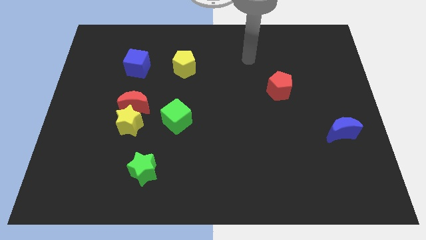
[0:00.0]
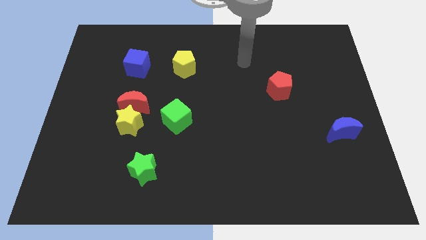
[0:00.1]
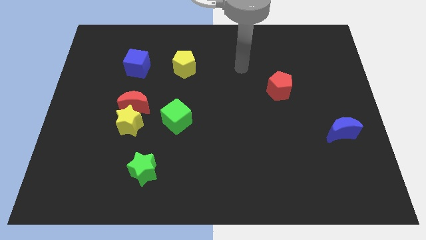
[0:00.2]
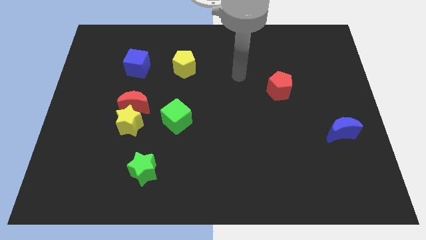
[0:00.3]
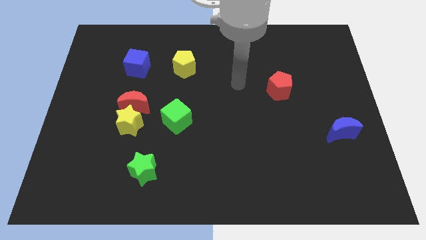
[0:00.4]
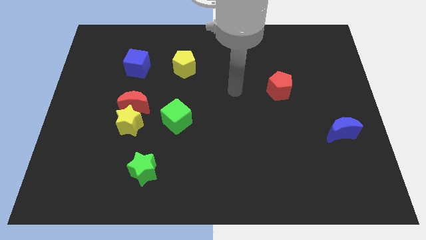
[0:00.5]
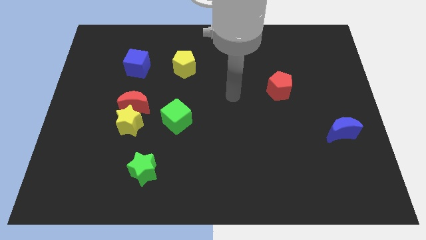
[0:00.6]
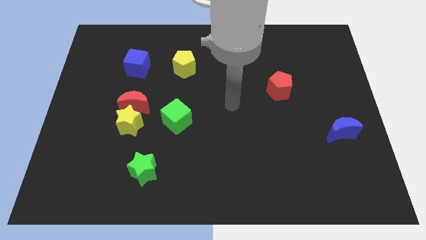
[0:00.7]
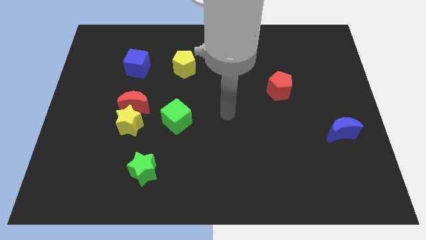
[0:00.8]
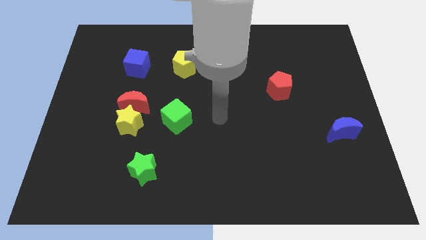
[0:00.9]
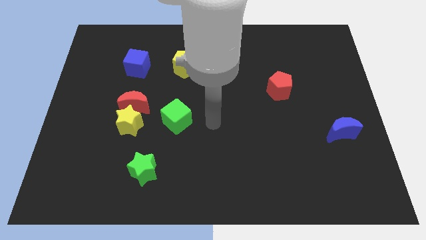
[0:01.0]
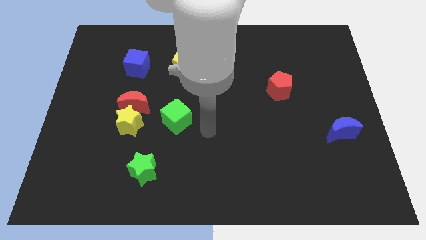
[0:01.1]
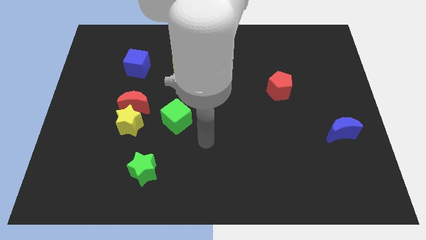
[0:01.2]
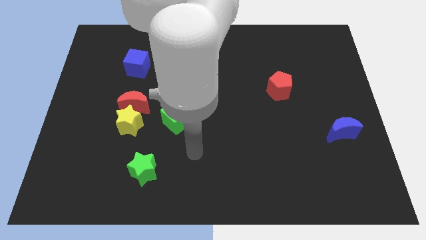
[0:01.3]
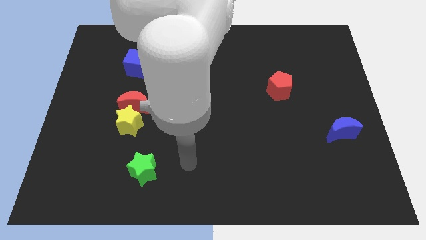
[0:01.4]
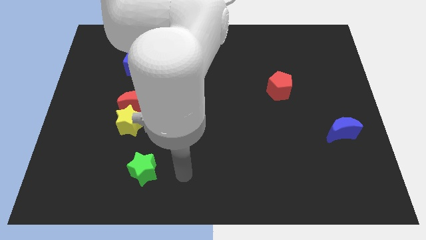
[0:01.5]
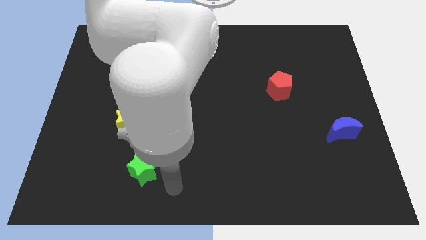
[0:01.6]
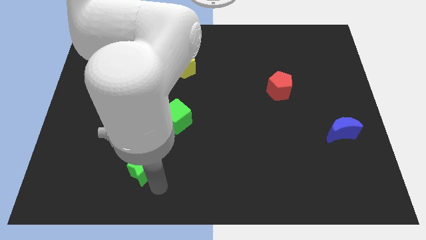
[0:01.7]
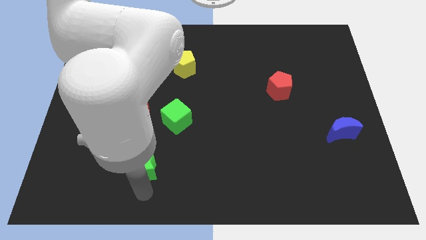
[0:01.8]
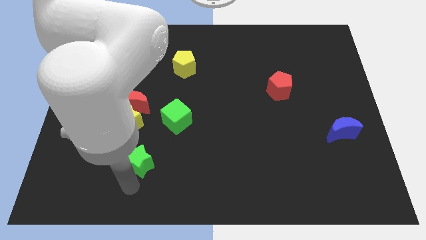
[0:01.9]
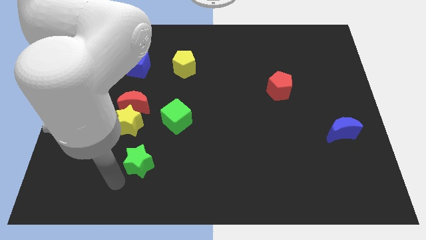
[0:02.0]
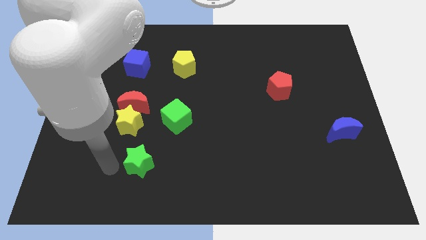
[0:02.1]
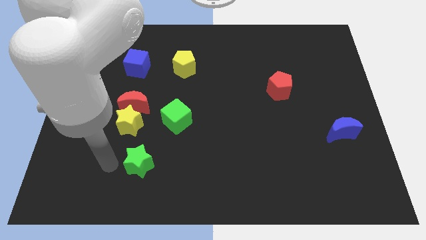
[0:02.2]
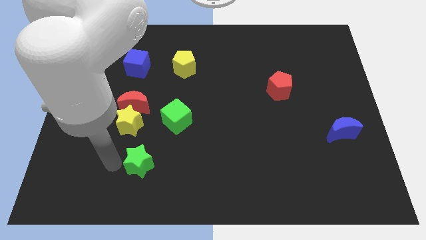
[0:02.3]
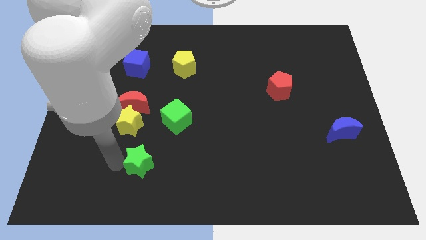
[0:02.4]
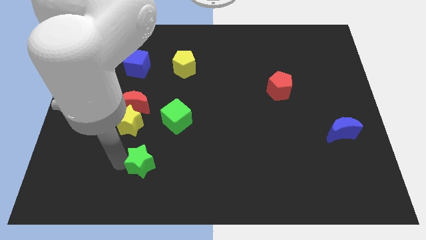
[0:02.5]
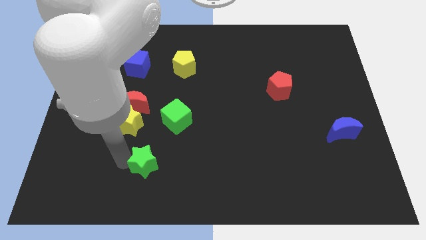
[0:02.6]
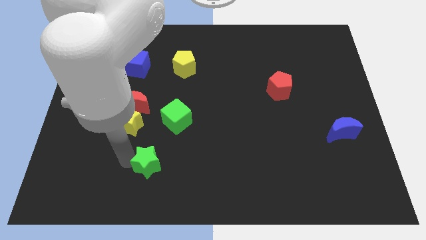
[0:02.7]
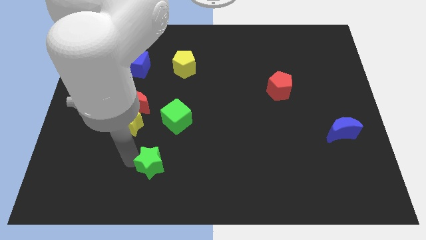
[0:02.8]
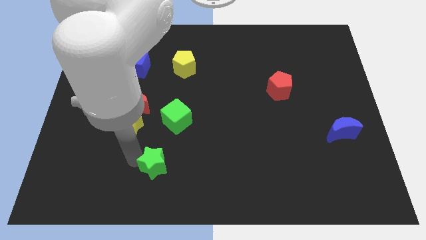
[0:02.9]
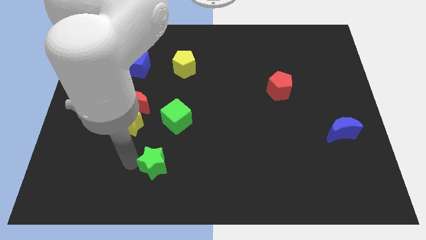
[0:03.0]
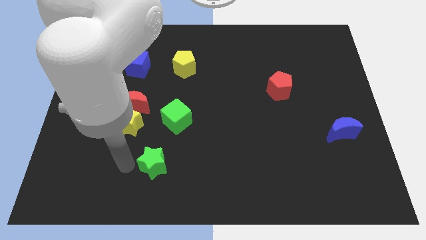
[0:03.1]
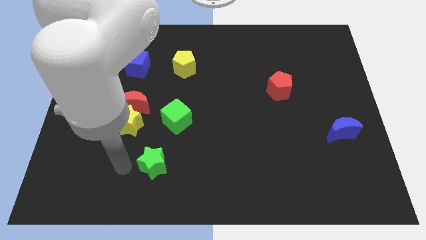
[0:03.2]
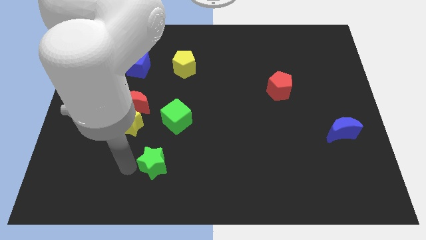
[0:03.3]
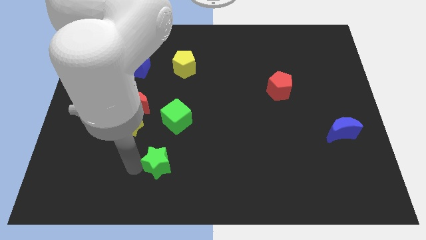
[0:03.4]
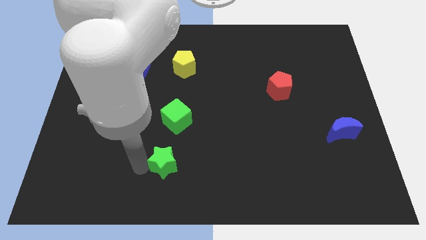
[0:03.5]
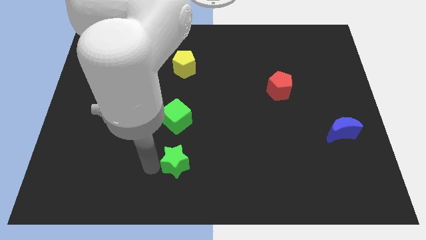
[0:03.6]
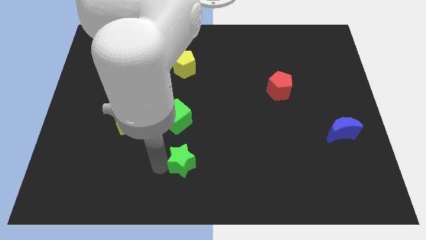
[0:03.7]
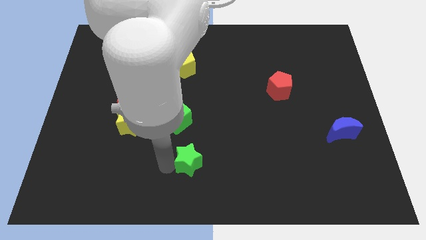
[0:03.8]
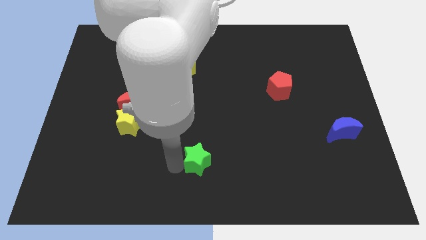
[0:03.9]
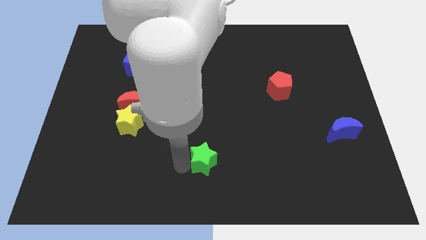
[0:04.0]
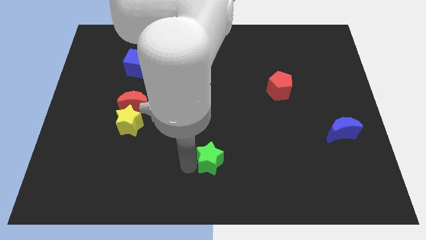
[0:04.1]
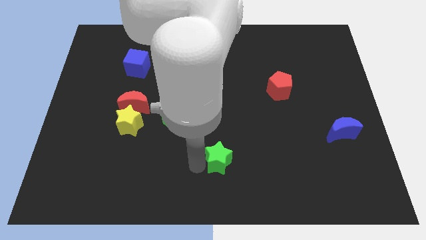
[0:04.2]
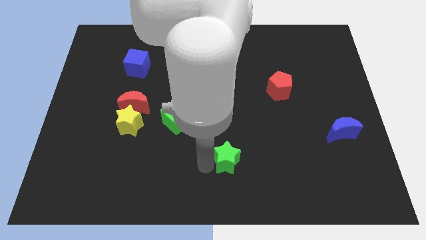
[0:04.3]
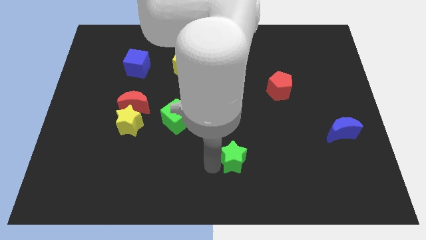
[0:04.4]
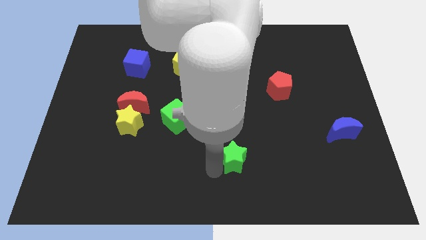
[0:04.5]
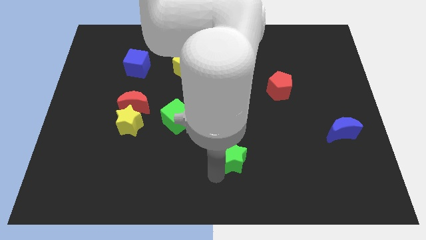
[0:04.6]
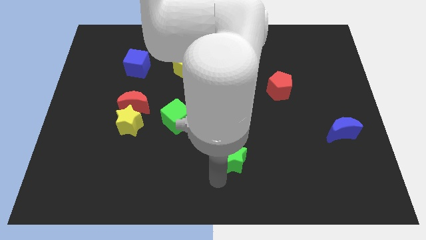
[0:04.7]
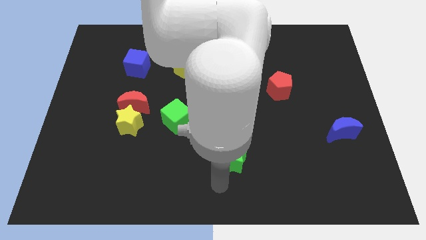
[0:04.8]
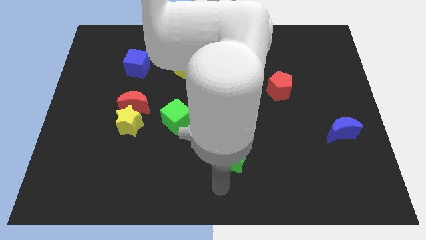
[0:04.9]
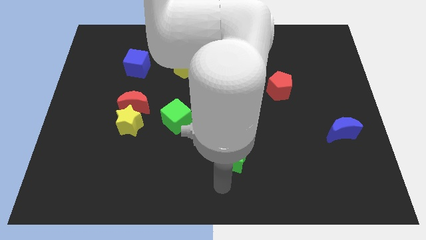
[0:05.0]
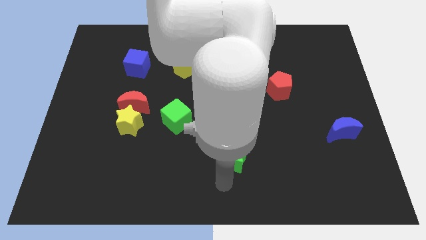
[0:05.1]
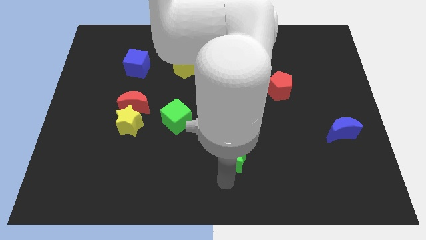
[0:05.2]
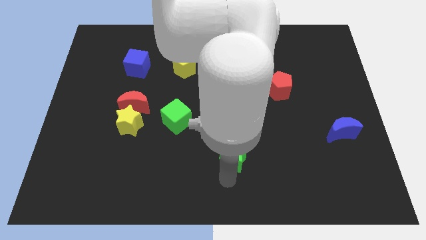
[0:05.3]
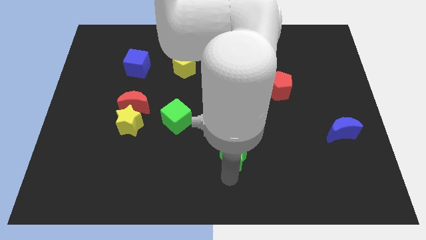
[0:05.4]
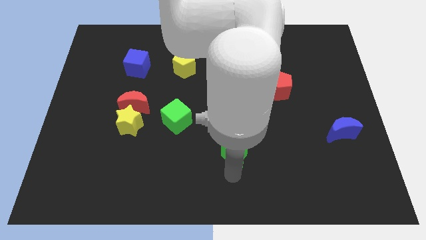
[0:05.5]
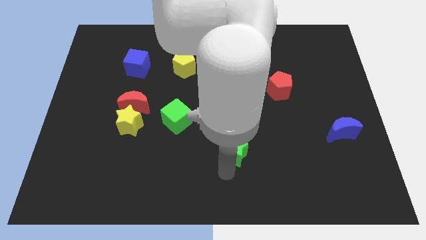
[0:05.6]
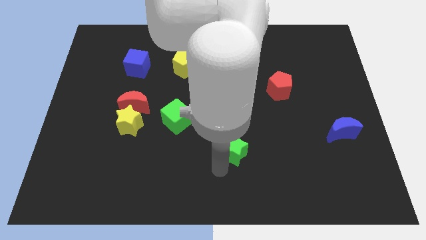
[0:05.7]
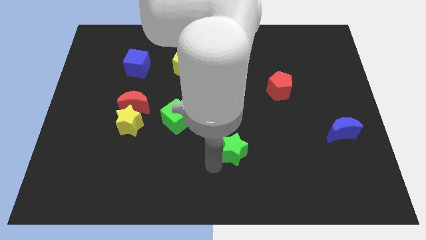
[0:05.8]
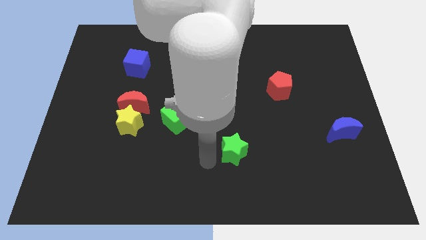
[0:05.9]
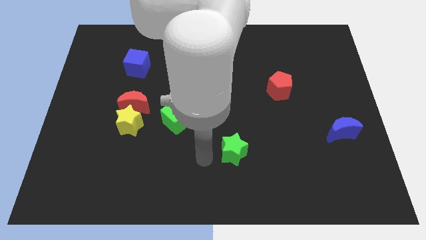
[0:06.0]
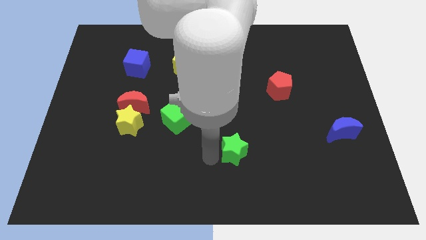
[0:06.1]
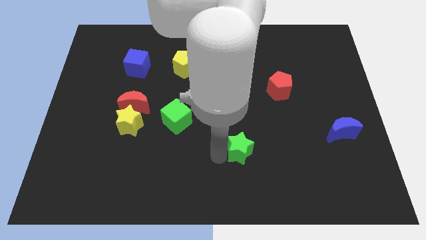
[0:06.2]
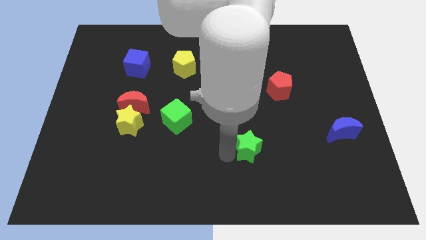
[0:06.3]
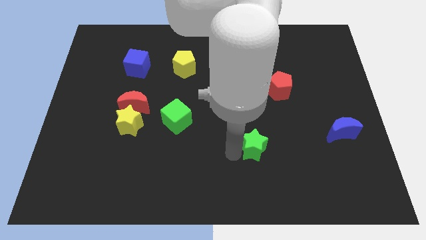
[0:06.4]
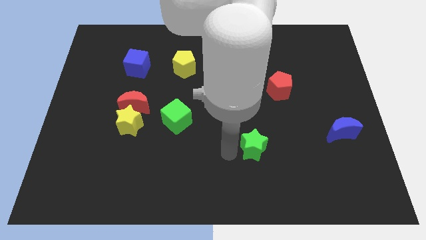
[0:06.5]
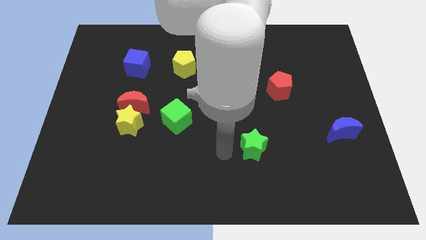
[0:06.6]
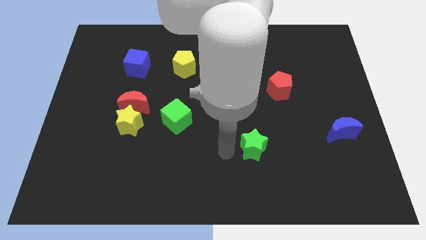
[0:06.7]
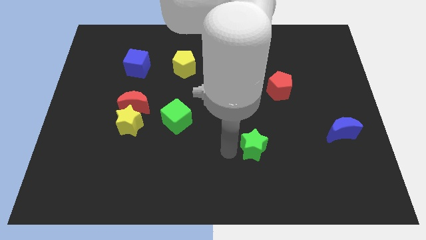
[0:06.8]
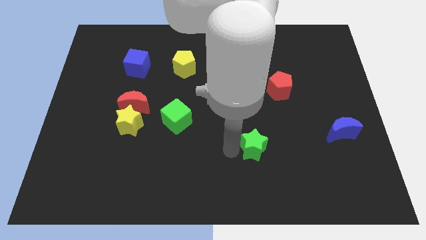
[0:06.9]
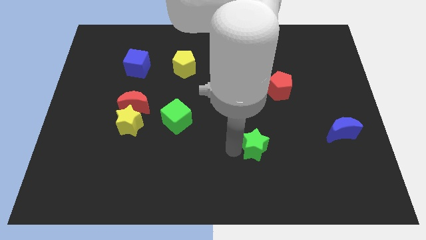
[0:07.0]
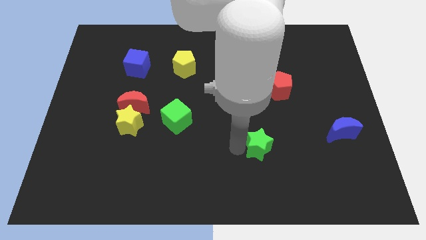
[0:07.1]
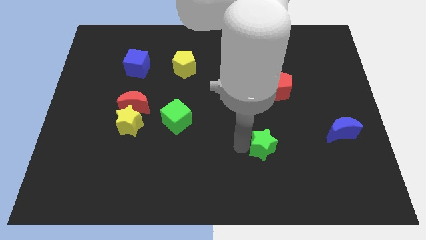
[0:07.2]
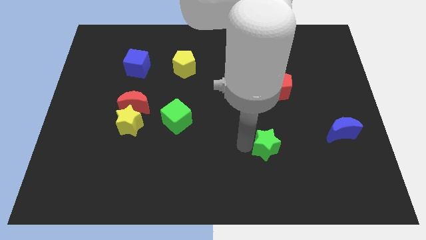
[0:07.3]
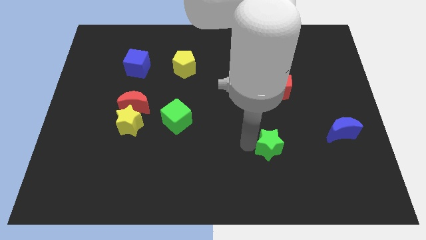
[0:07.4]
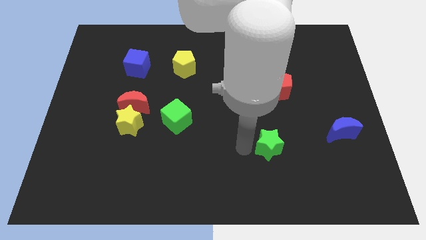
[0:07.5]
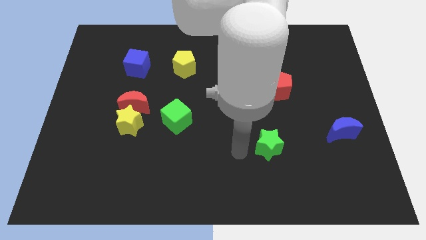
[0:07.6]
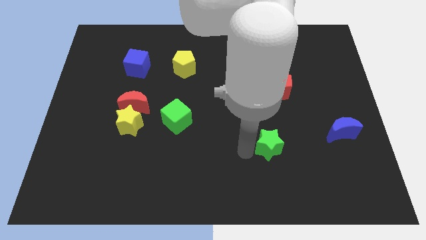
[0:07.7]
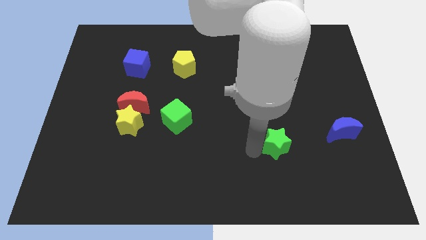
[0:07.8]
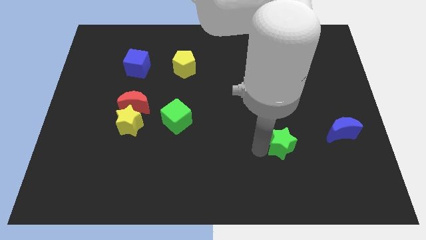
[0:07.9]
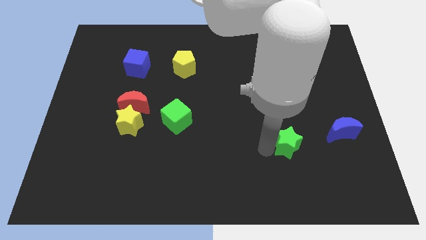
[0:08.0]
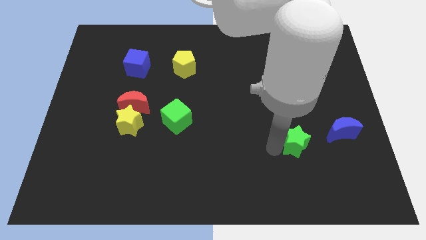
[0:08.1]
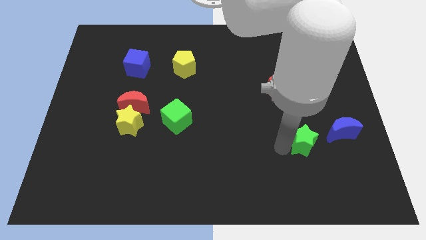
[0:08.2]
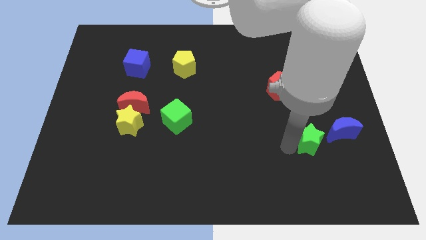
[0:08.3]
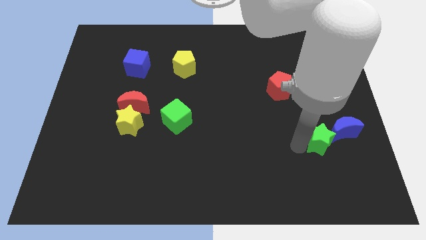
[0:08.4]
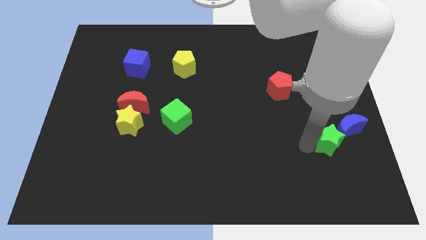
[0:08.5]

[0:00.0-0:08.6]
move the green star towards the blue moon
